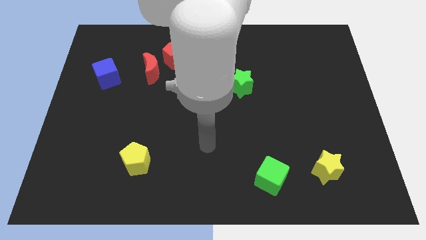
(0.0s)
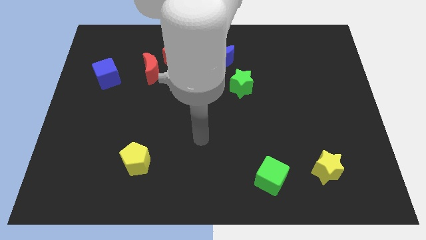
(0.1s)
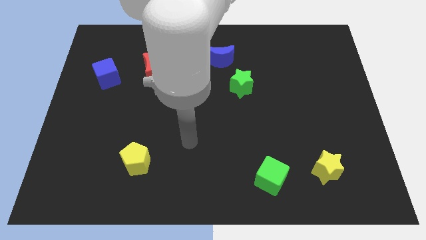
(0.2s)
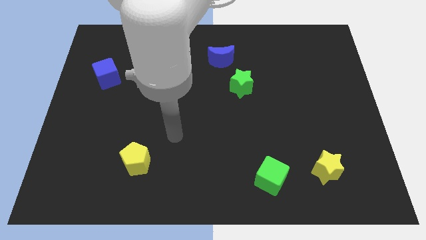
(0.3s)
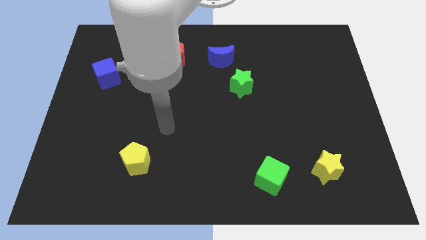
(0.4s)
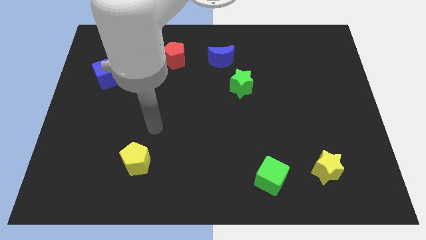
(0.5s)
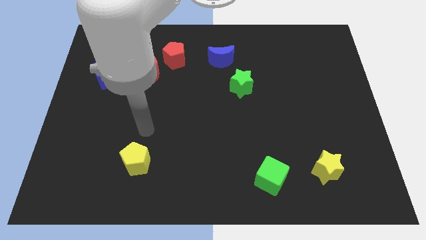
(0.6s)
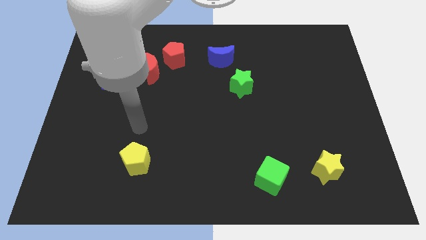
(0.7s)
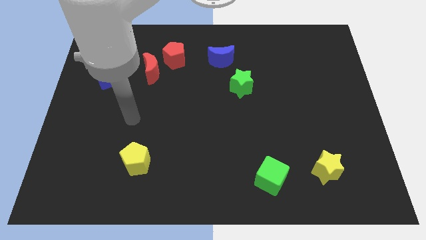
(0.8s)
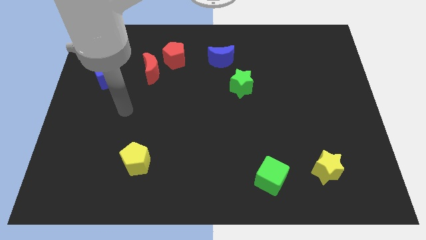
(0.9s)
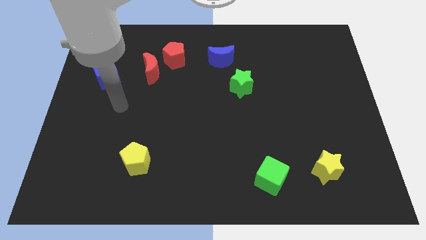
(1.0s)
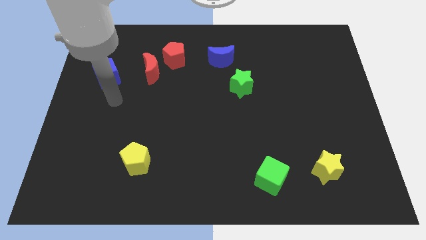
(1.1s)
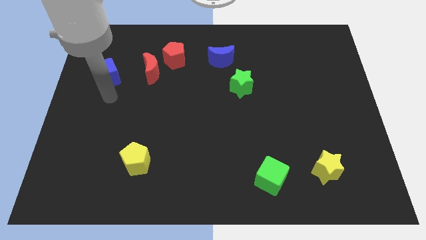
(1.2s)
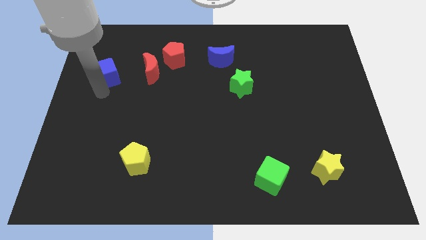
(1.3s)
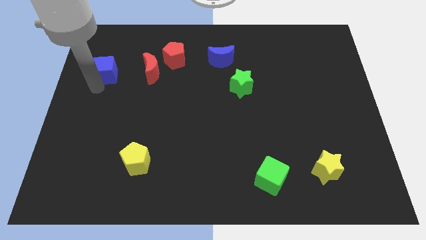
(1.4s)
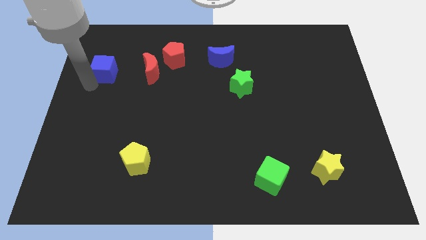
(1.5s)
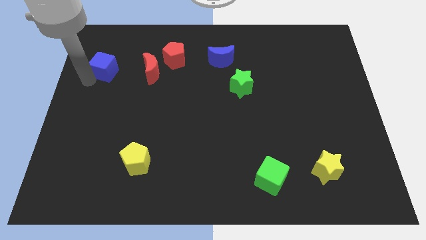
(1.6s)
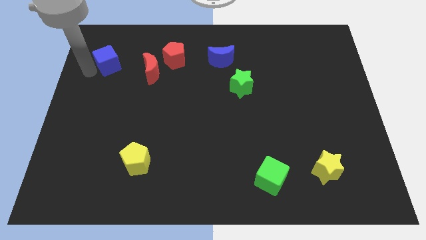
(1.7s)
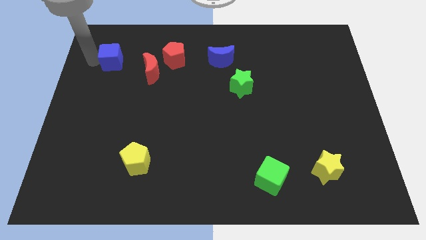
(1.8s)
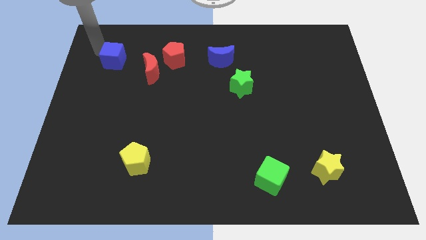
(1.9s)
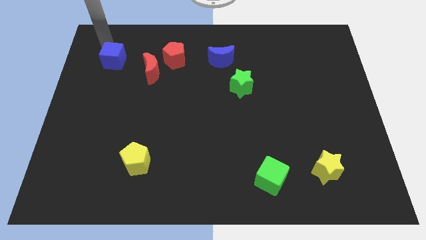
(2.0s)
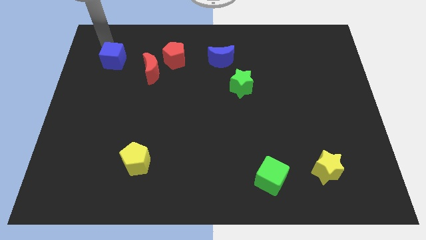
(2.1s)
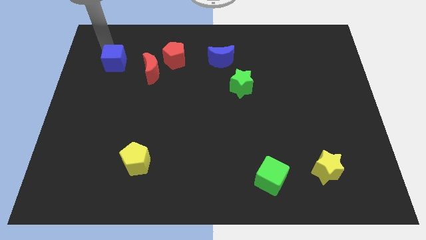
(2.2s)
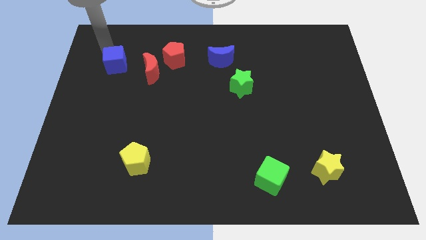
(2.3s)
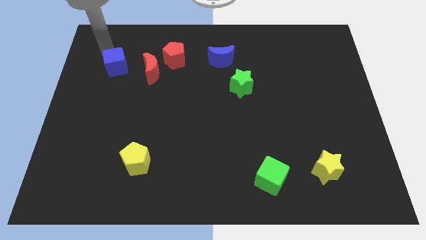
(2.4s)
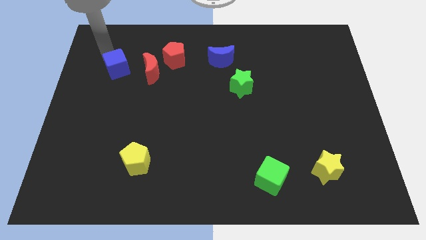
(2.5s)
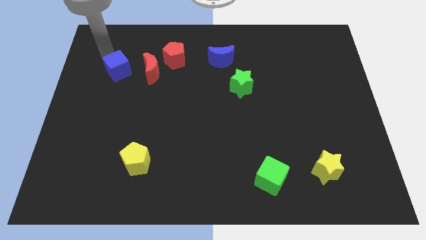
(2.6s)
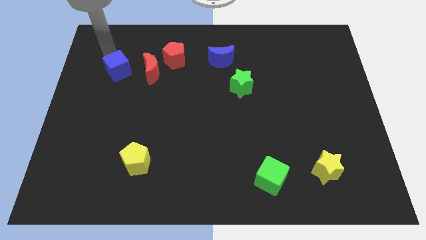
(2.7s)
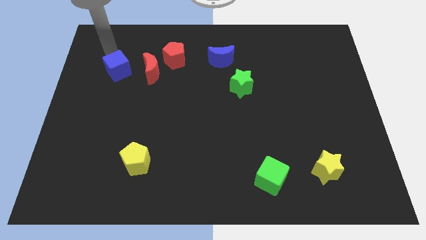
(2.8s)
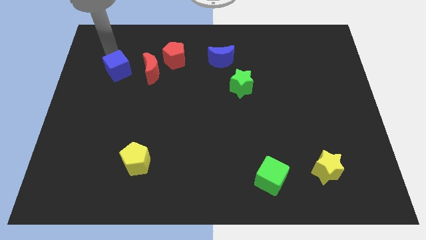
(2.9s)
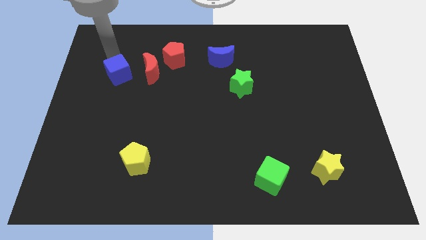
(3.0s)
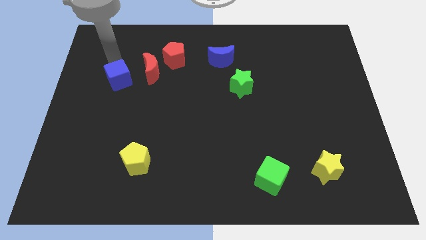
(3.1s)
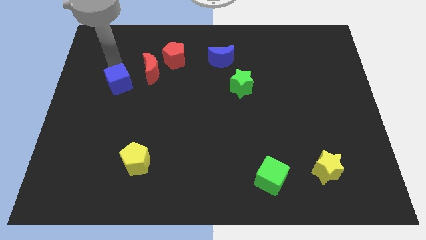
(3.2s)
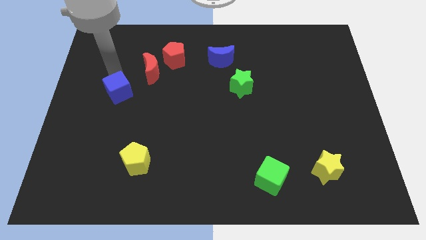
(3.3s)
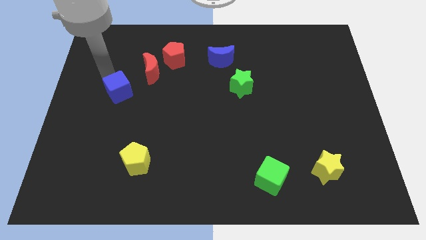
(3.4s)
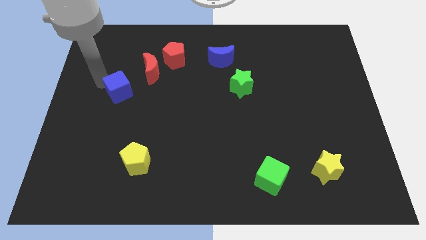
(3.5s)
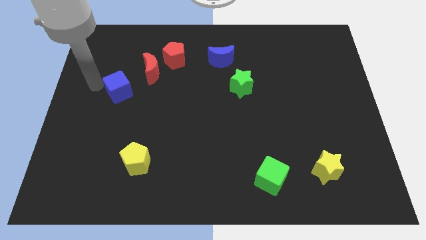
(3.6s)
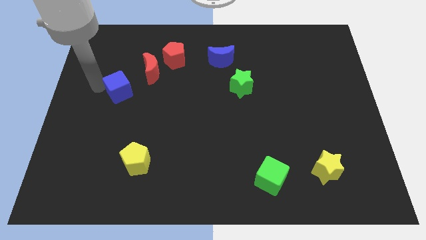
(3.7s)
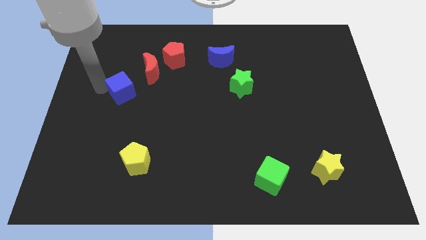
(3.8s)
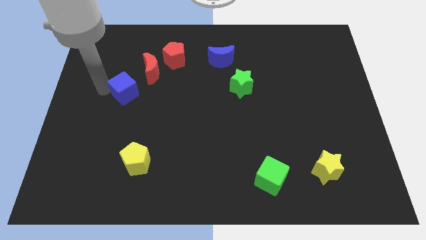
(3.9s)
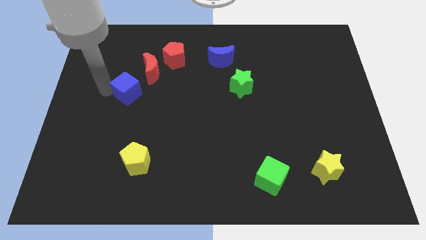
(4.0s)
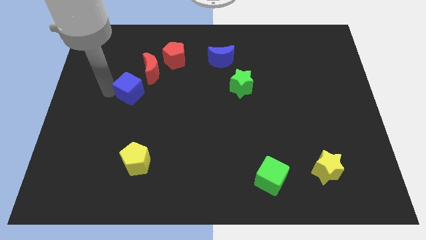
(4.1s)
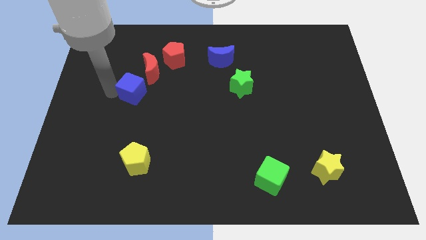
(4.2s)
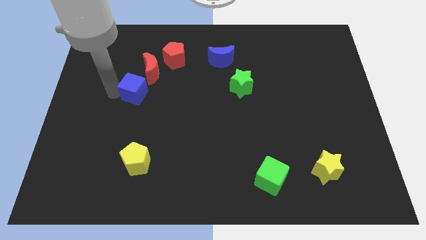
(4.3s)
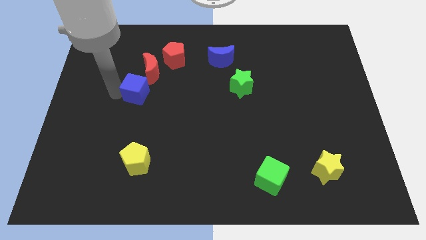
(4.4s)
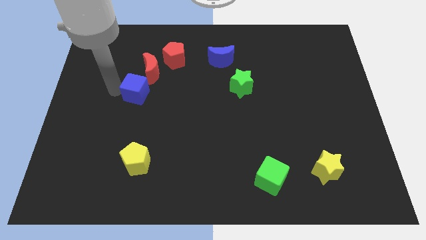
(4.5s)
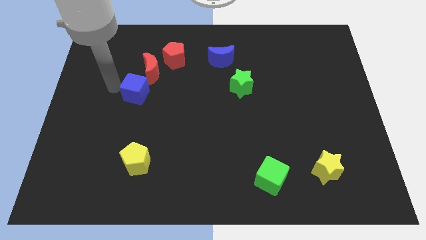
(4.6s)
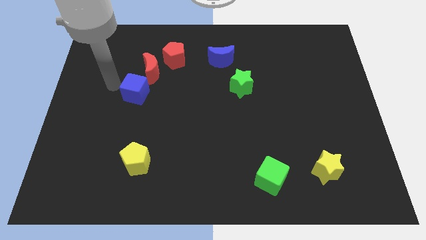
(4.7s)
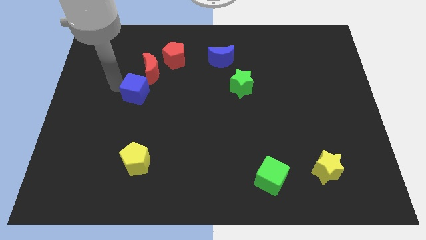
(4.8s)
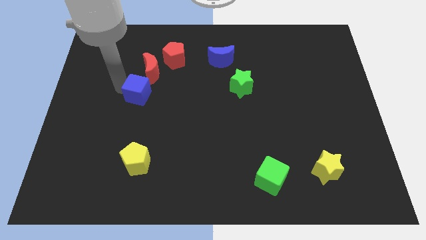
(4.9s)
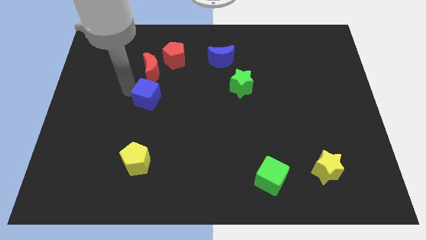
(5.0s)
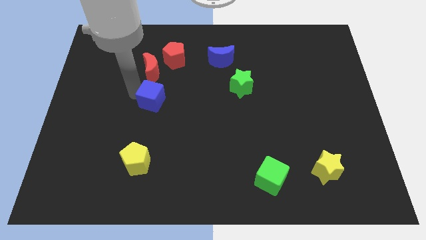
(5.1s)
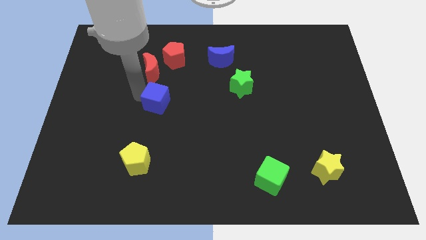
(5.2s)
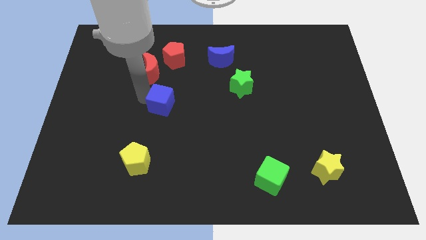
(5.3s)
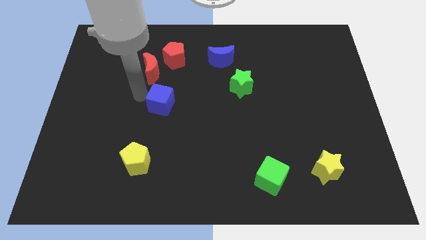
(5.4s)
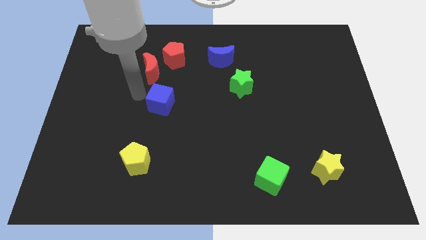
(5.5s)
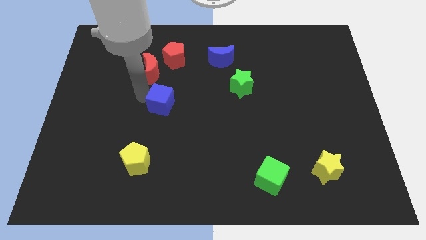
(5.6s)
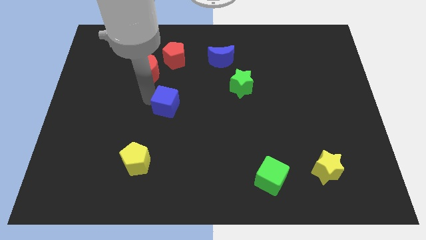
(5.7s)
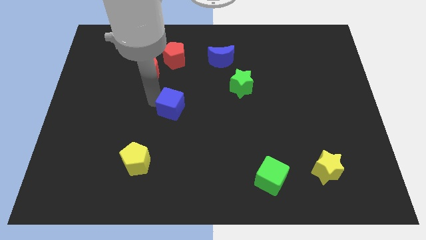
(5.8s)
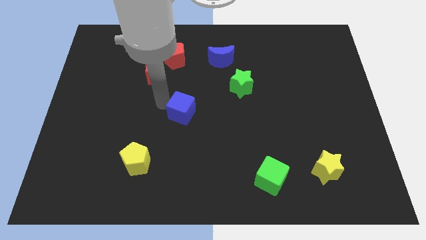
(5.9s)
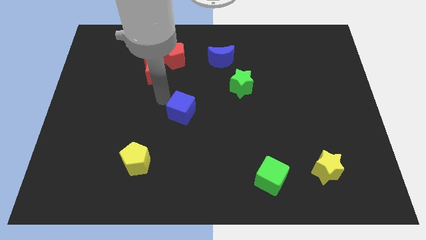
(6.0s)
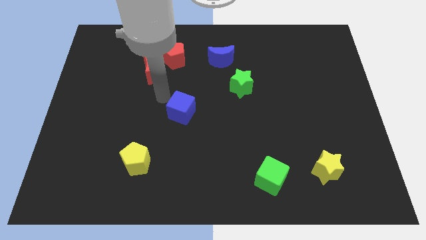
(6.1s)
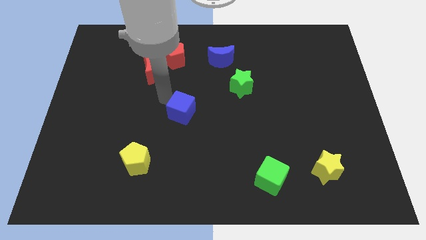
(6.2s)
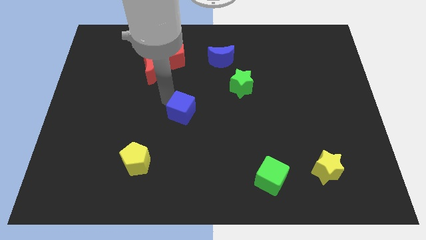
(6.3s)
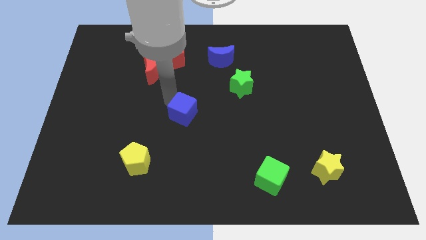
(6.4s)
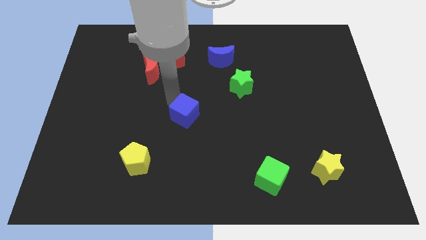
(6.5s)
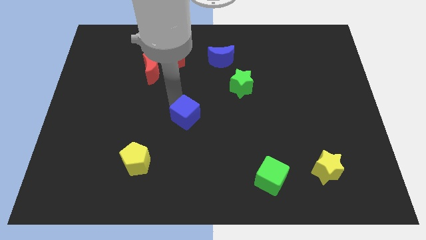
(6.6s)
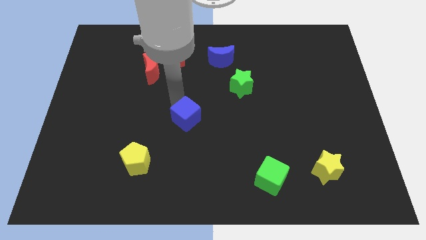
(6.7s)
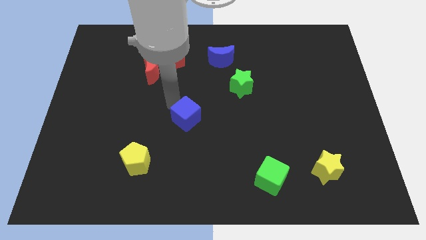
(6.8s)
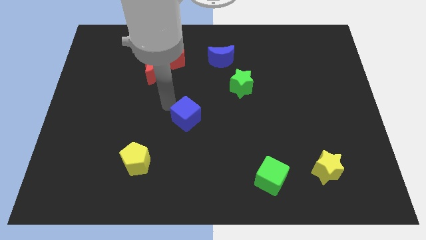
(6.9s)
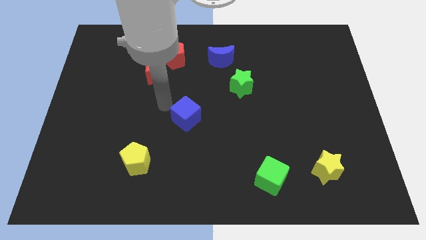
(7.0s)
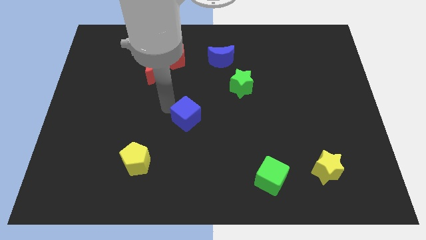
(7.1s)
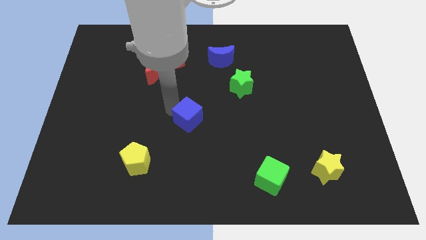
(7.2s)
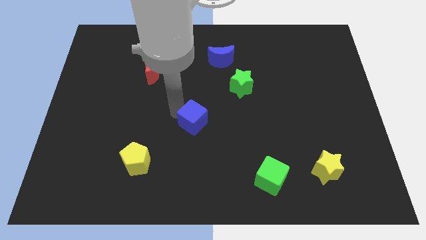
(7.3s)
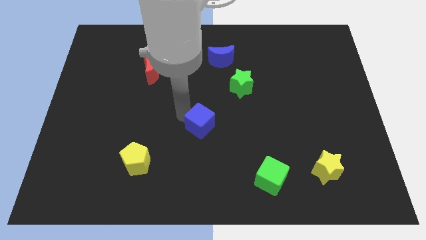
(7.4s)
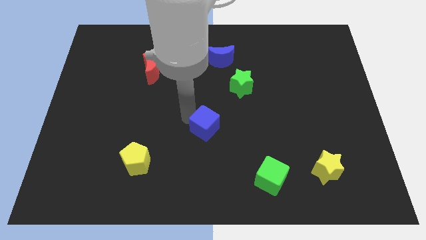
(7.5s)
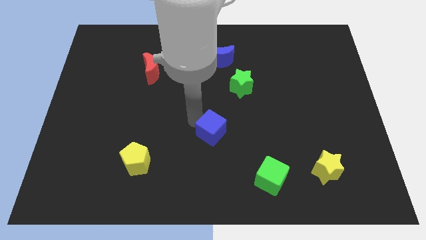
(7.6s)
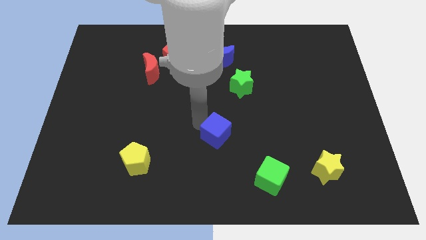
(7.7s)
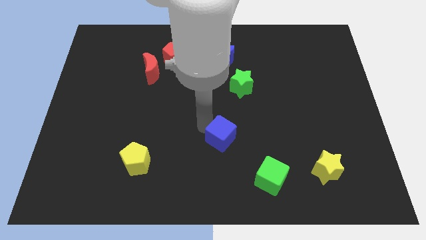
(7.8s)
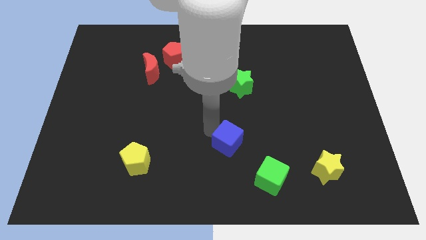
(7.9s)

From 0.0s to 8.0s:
move the blue cube to the top left of the green cube
